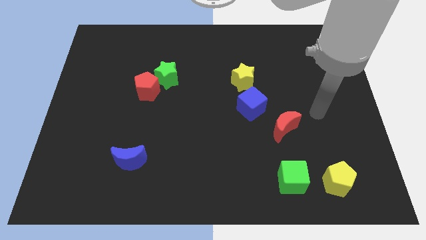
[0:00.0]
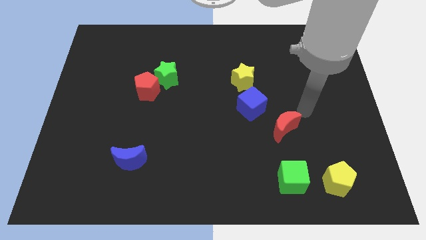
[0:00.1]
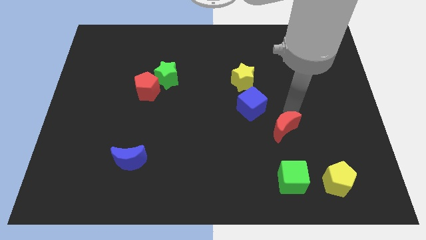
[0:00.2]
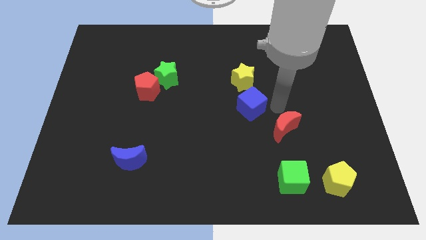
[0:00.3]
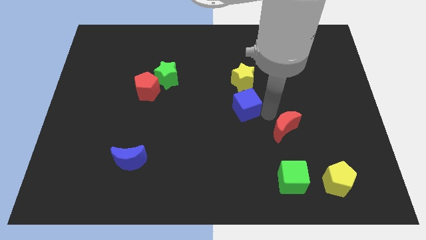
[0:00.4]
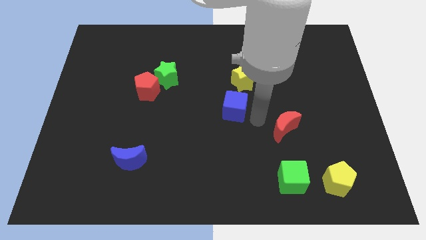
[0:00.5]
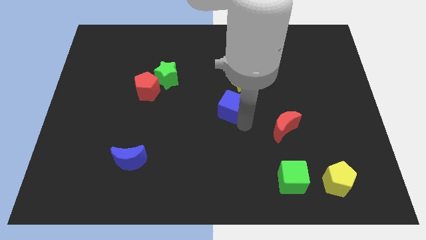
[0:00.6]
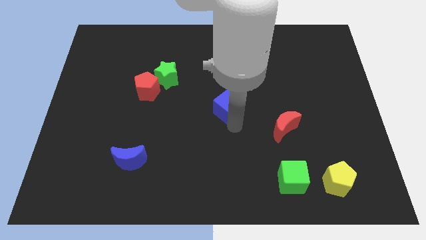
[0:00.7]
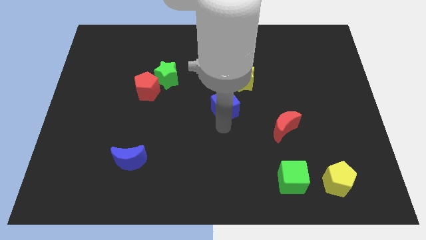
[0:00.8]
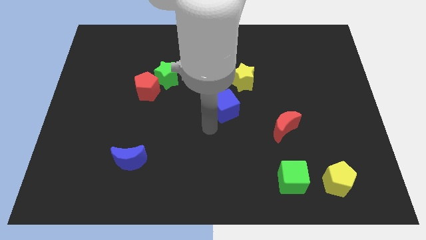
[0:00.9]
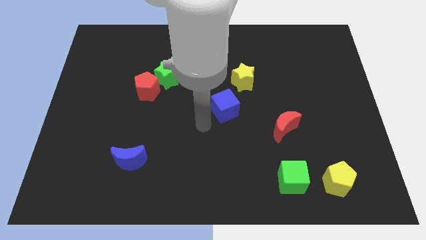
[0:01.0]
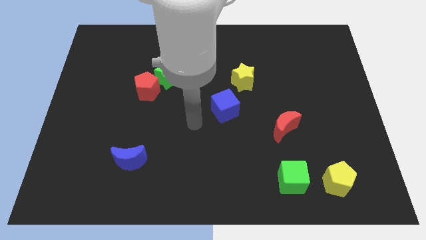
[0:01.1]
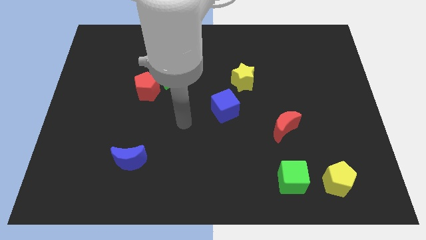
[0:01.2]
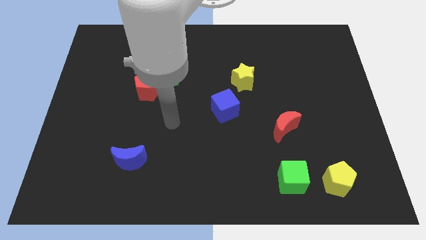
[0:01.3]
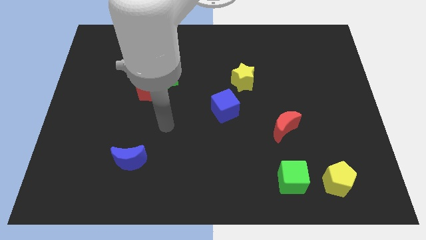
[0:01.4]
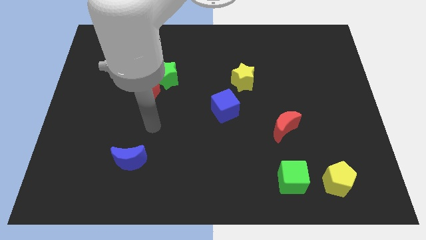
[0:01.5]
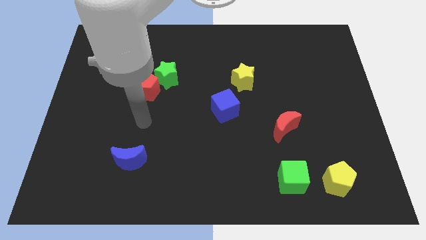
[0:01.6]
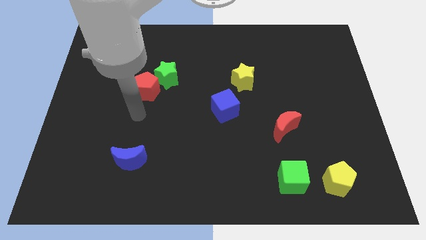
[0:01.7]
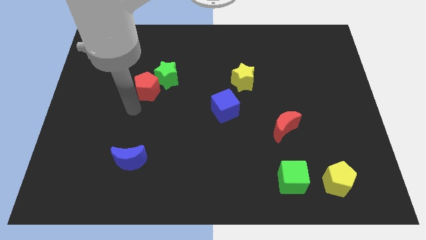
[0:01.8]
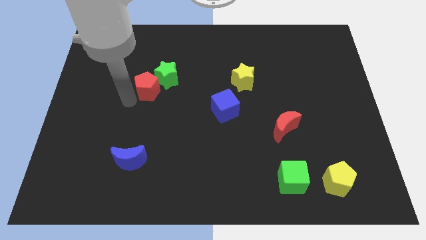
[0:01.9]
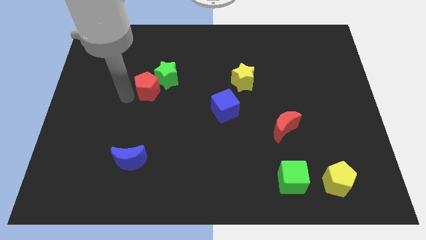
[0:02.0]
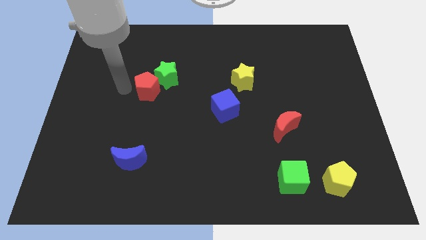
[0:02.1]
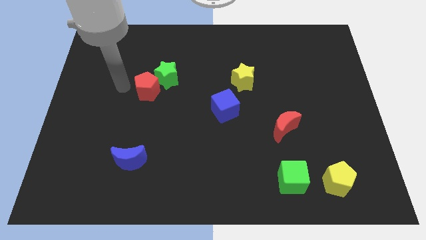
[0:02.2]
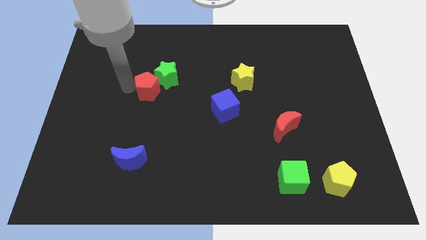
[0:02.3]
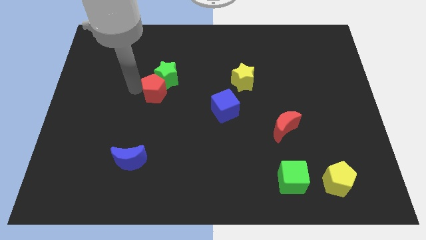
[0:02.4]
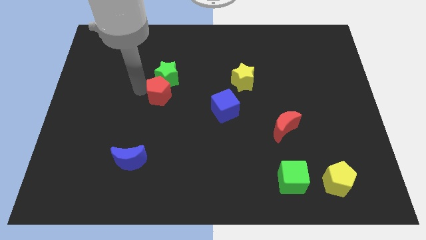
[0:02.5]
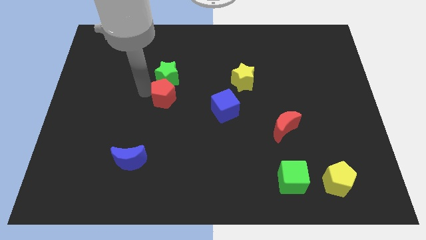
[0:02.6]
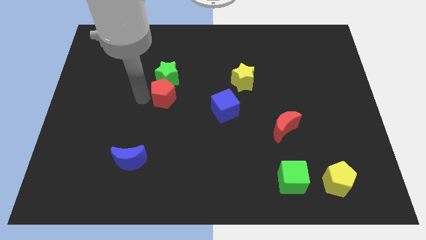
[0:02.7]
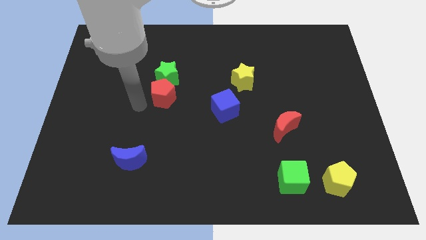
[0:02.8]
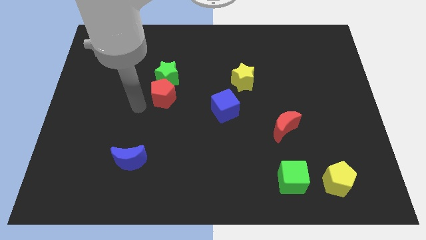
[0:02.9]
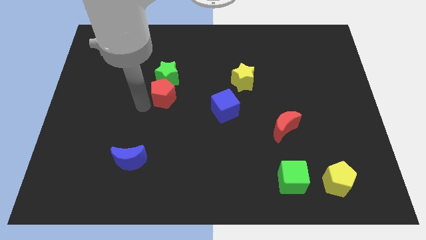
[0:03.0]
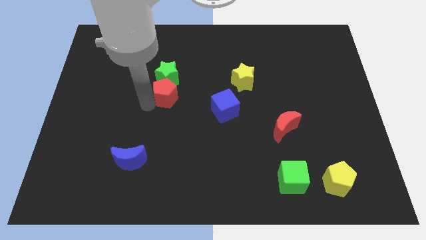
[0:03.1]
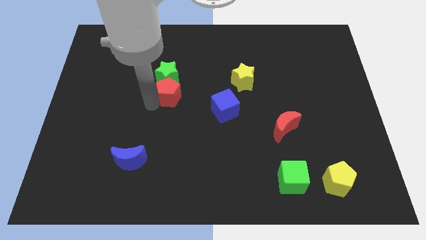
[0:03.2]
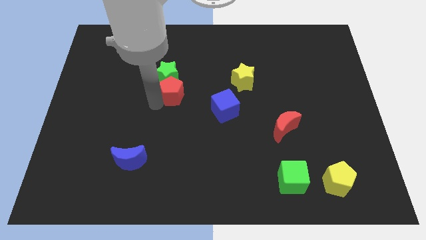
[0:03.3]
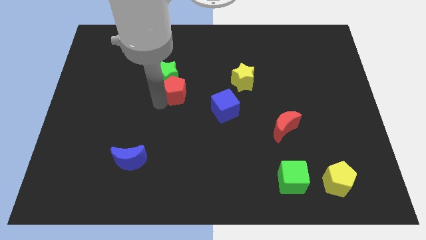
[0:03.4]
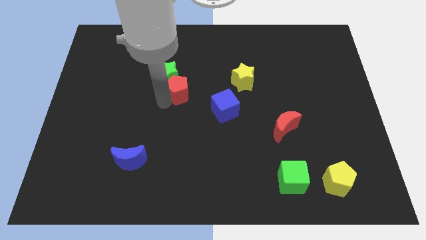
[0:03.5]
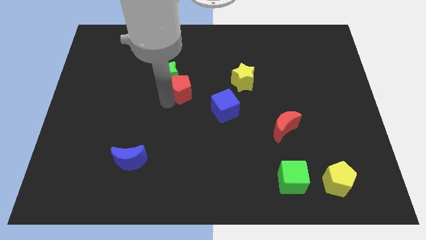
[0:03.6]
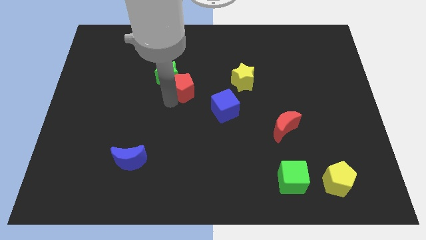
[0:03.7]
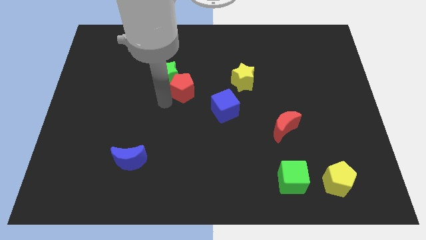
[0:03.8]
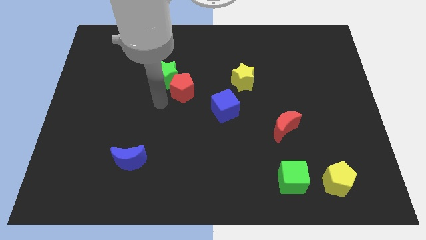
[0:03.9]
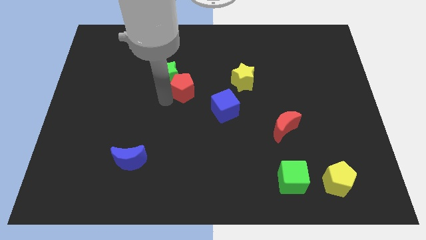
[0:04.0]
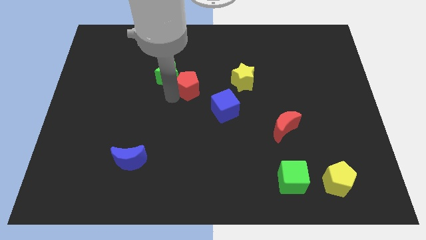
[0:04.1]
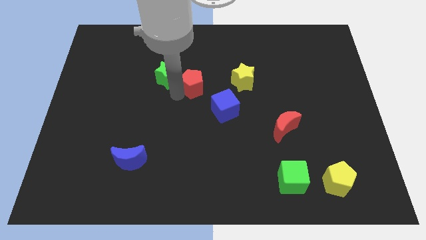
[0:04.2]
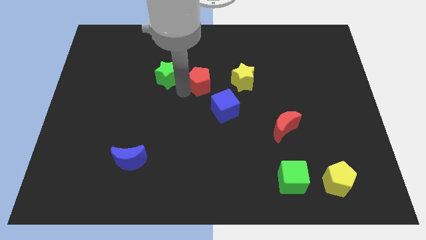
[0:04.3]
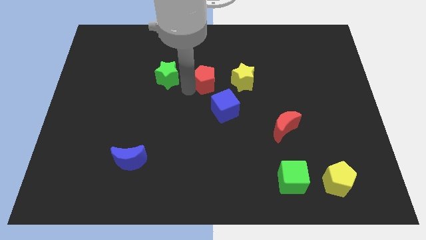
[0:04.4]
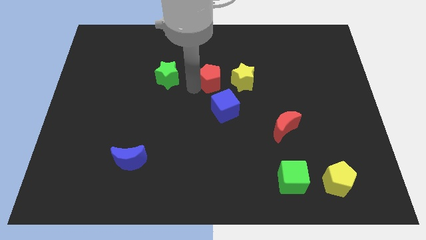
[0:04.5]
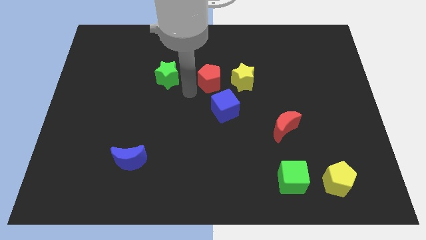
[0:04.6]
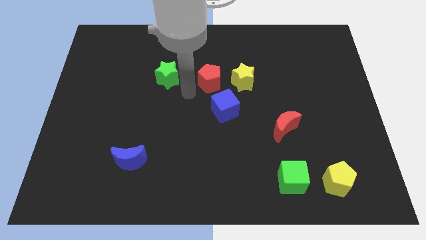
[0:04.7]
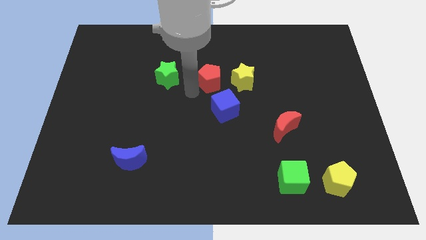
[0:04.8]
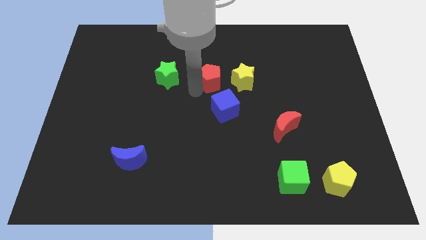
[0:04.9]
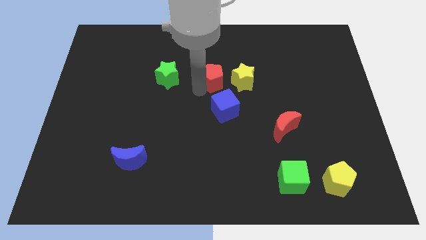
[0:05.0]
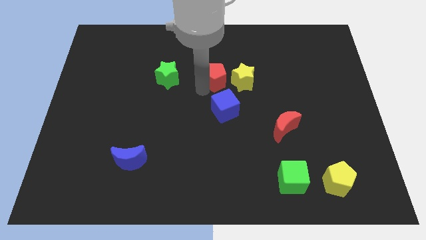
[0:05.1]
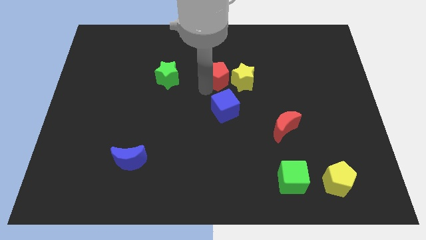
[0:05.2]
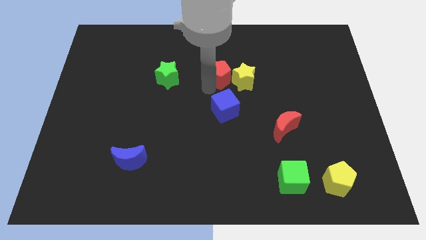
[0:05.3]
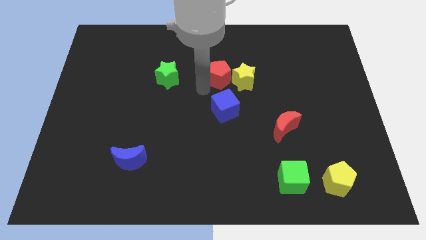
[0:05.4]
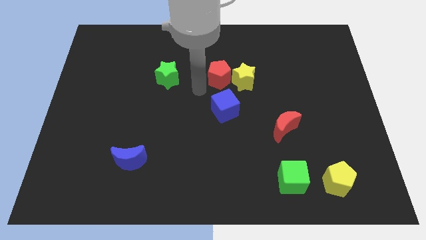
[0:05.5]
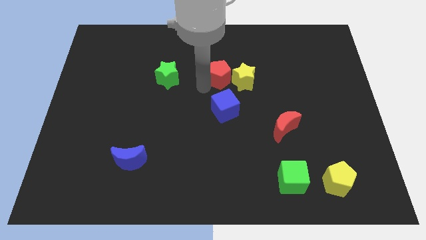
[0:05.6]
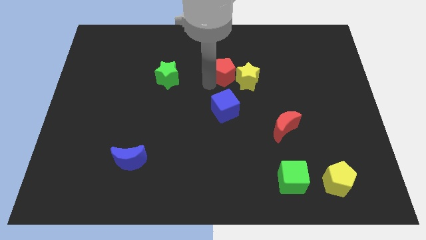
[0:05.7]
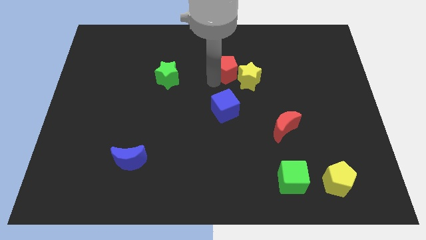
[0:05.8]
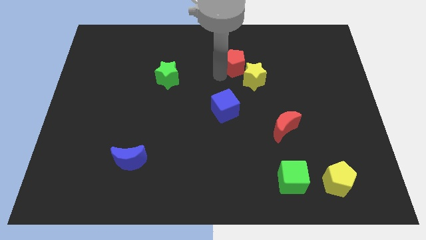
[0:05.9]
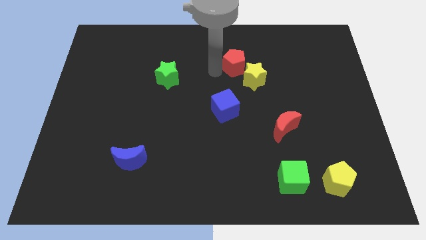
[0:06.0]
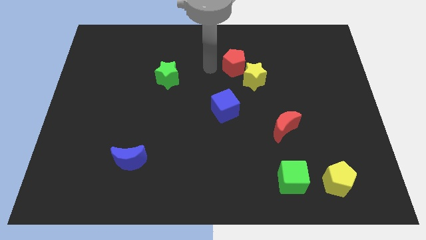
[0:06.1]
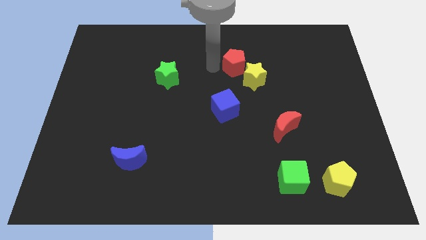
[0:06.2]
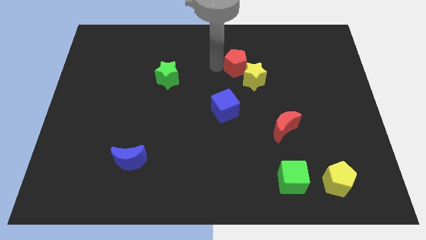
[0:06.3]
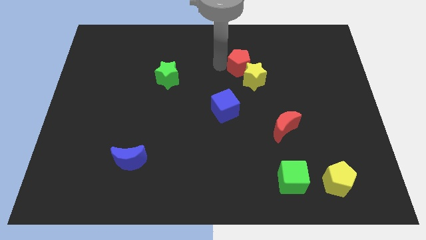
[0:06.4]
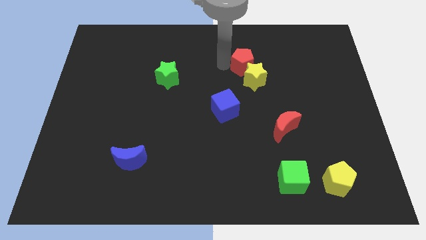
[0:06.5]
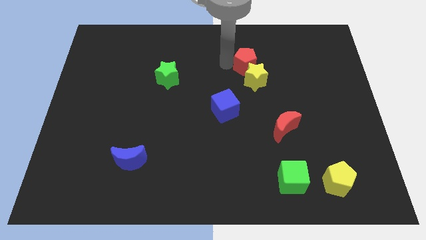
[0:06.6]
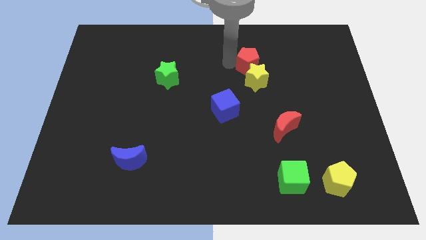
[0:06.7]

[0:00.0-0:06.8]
put the red pentagon to the top right side of the yellow star
